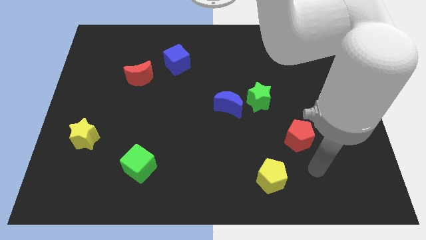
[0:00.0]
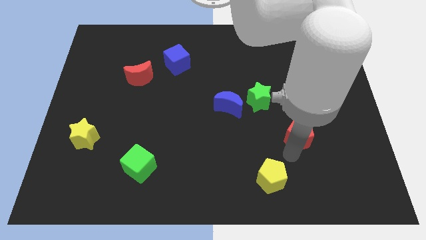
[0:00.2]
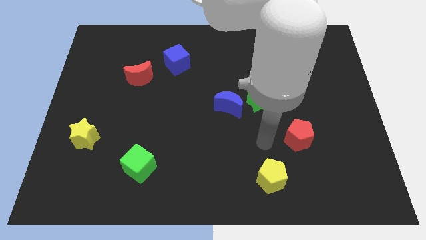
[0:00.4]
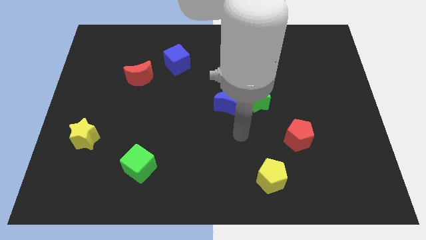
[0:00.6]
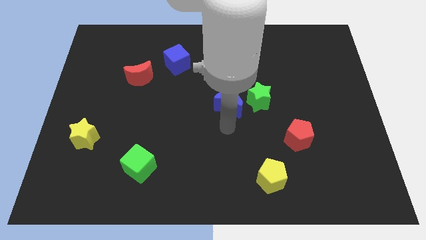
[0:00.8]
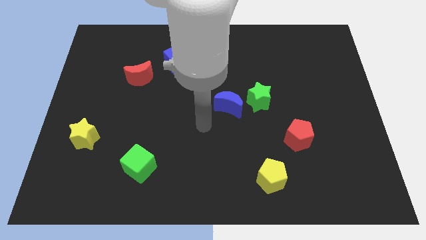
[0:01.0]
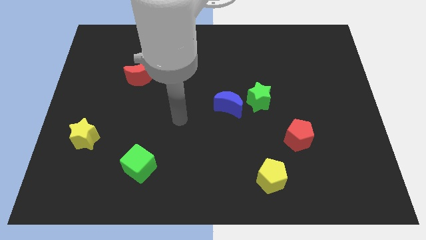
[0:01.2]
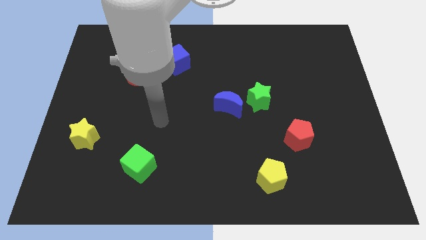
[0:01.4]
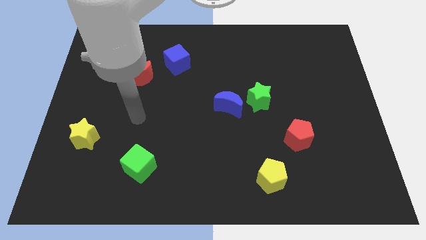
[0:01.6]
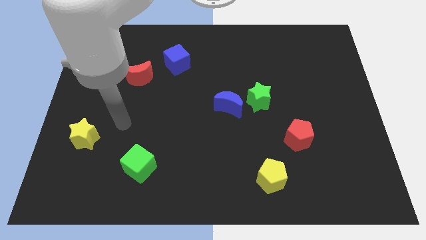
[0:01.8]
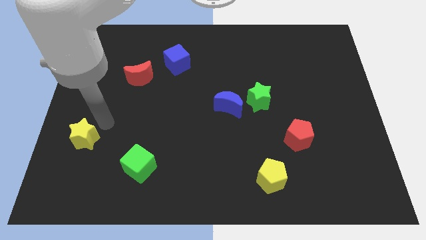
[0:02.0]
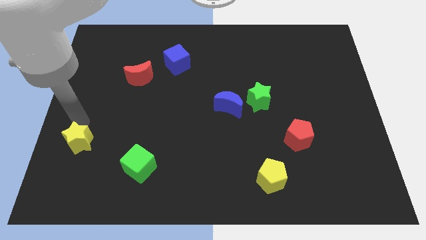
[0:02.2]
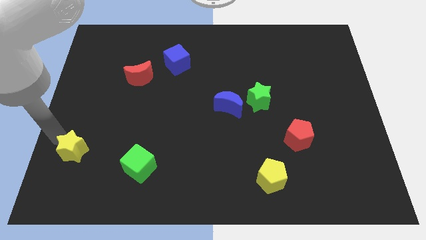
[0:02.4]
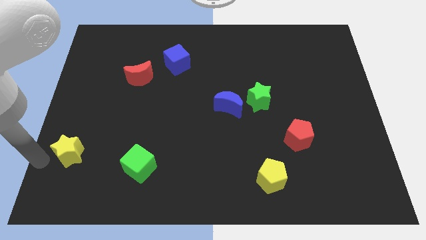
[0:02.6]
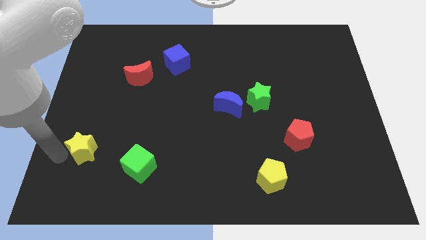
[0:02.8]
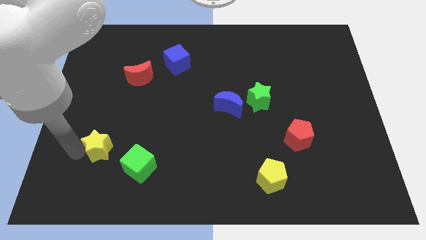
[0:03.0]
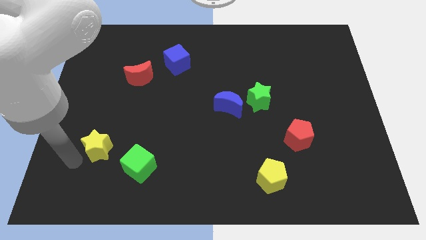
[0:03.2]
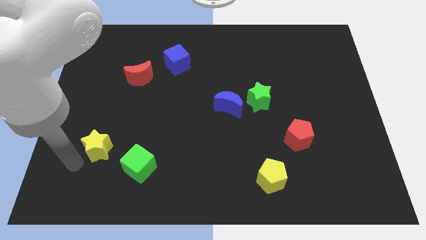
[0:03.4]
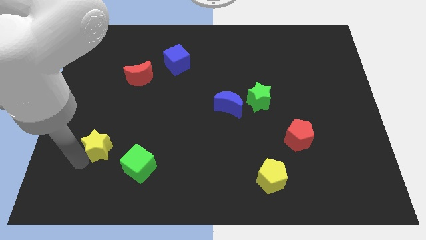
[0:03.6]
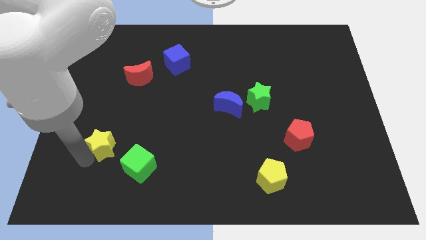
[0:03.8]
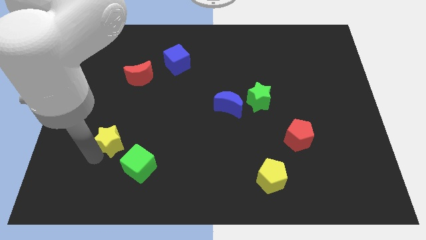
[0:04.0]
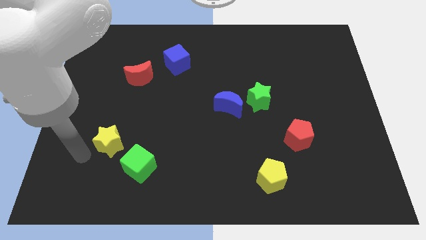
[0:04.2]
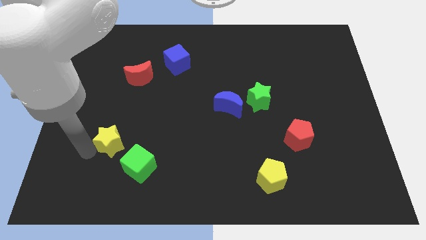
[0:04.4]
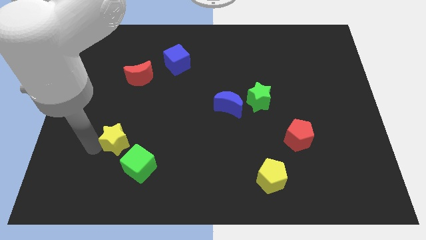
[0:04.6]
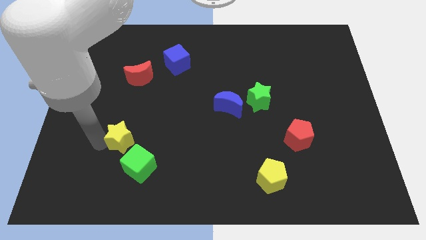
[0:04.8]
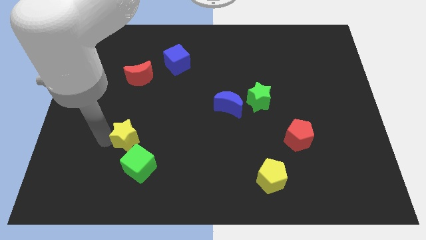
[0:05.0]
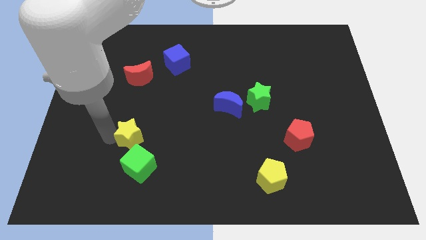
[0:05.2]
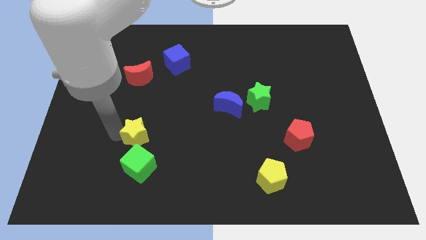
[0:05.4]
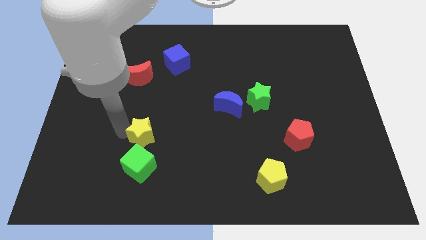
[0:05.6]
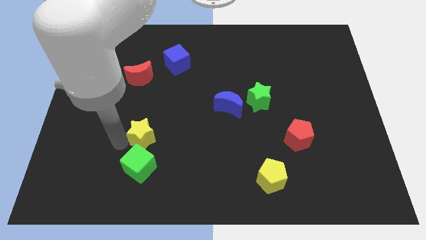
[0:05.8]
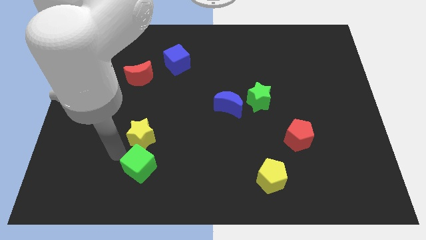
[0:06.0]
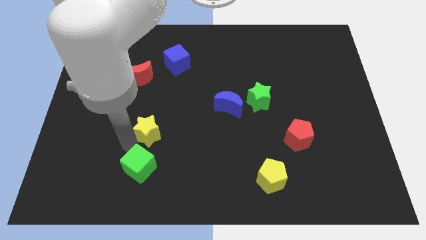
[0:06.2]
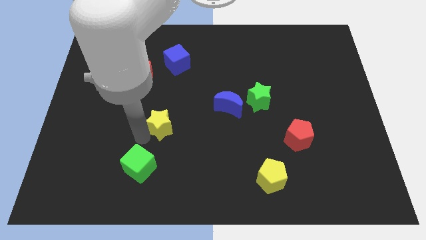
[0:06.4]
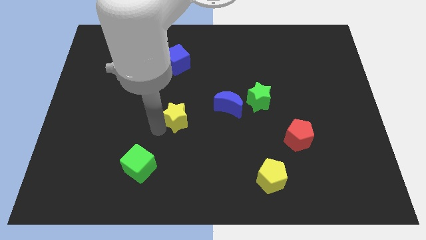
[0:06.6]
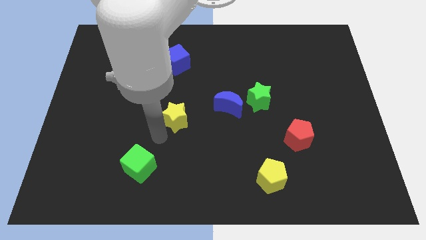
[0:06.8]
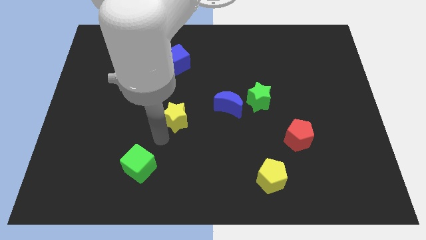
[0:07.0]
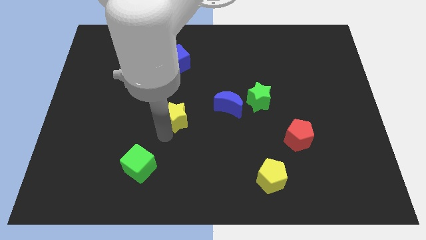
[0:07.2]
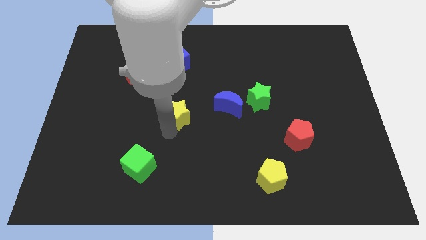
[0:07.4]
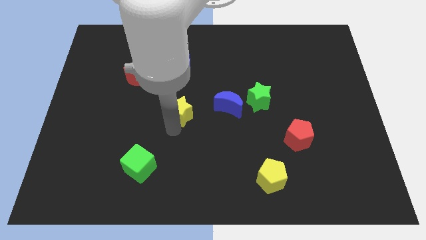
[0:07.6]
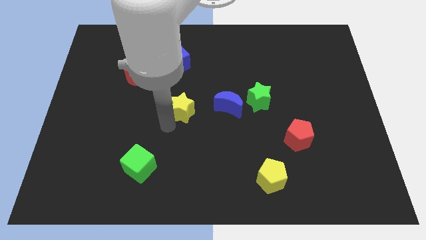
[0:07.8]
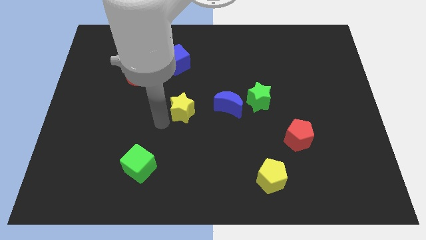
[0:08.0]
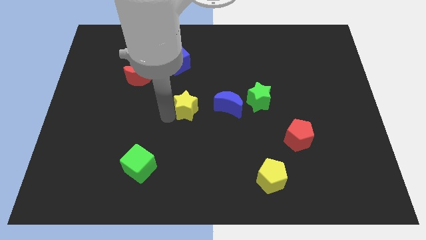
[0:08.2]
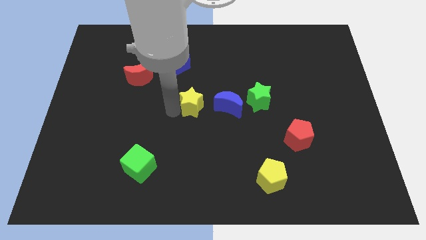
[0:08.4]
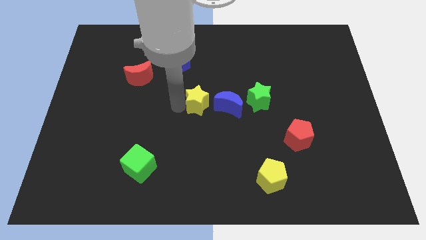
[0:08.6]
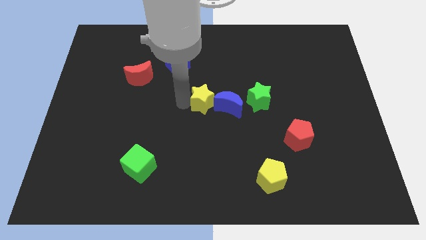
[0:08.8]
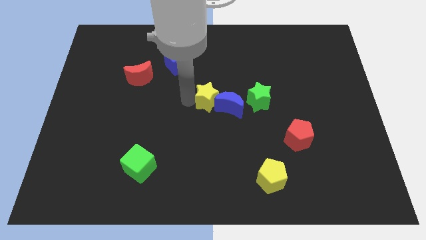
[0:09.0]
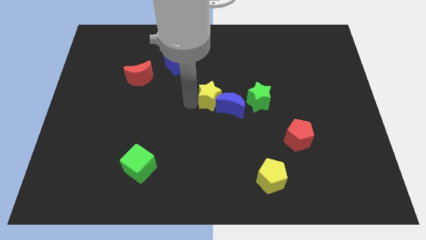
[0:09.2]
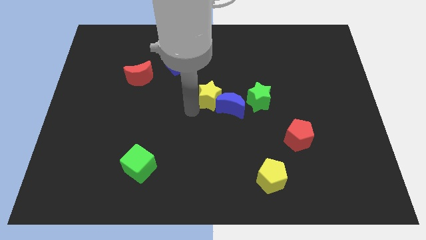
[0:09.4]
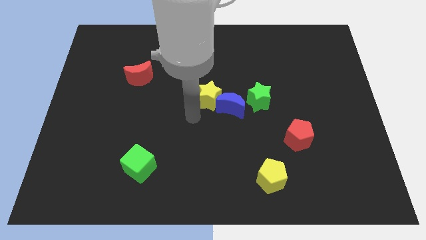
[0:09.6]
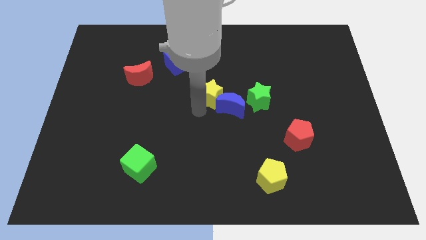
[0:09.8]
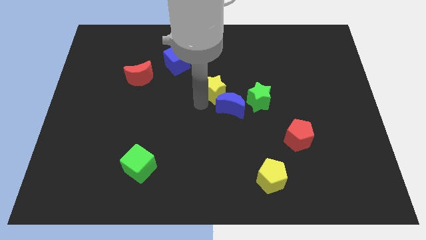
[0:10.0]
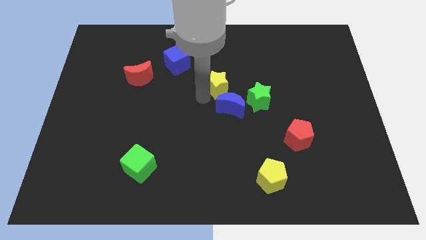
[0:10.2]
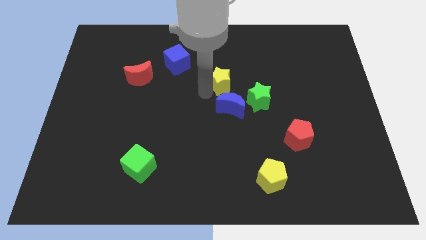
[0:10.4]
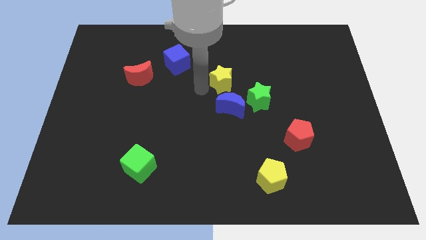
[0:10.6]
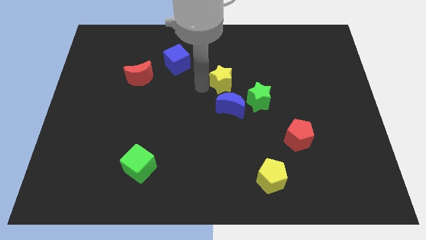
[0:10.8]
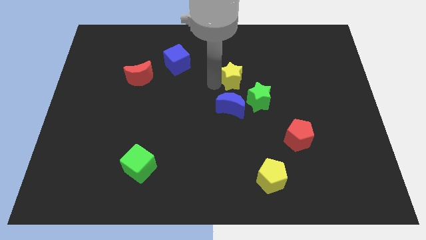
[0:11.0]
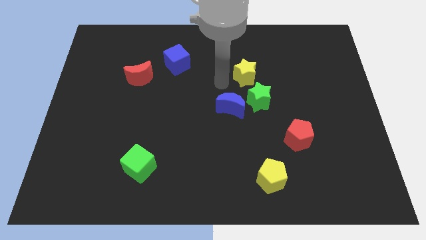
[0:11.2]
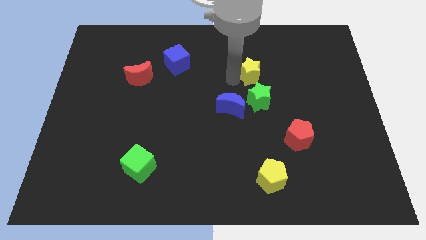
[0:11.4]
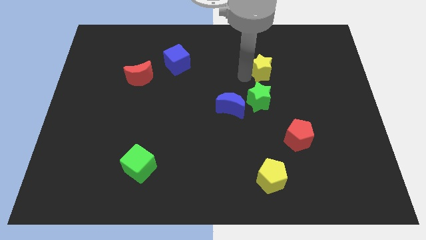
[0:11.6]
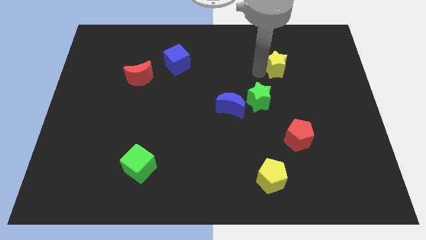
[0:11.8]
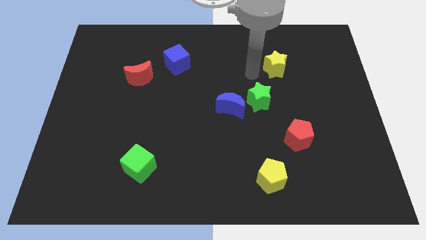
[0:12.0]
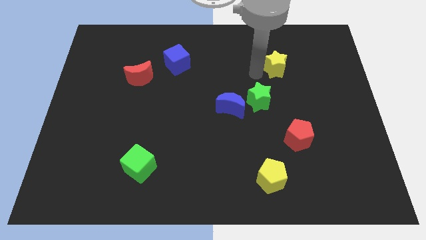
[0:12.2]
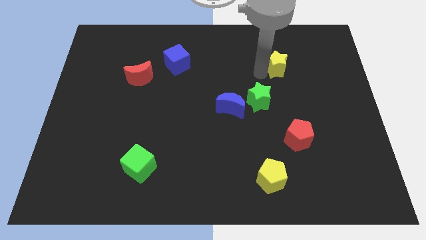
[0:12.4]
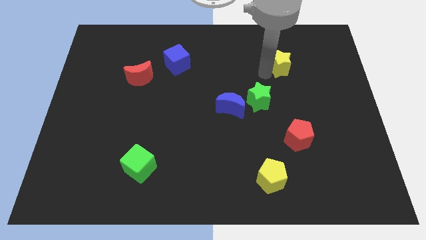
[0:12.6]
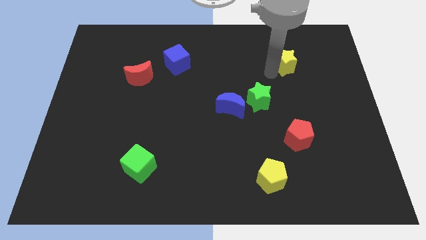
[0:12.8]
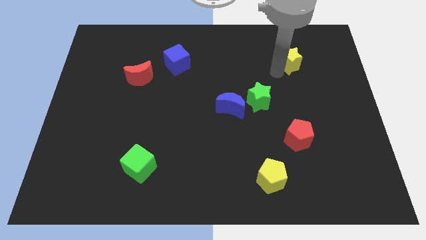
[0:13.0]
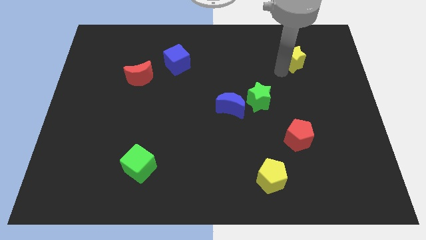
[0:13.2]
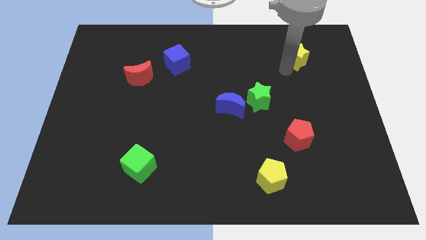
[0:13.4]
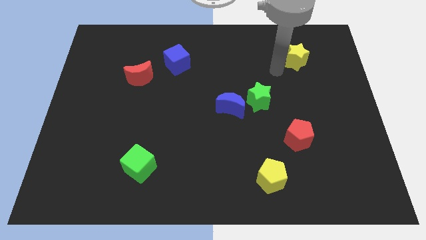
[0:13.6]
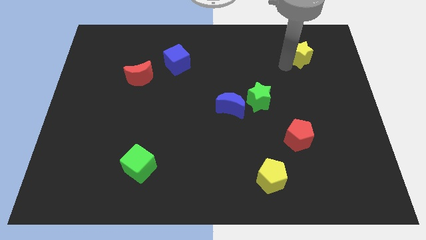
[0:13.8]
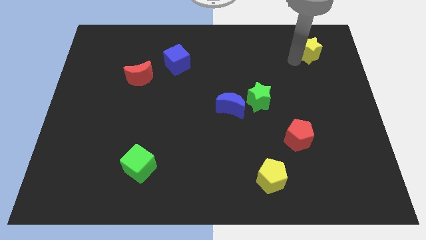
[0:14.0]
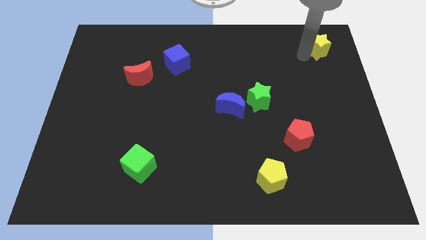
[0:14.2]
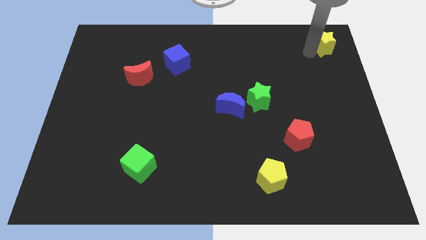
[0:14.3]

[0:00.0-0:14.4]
push the yellow star to the top right corner
